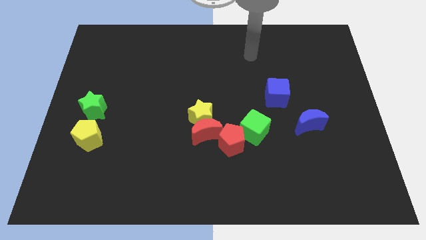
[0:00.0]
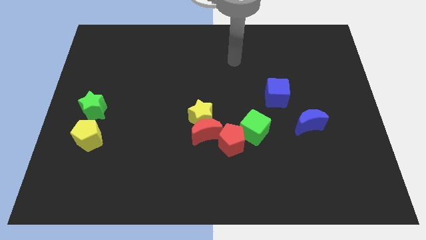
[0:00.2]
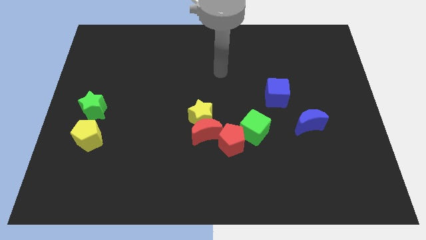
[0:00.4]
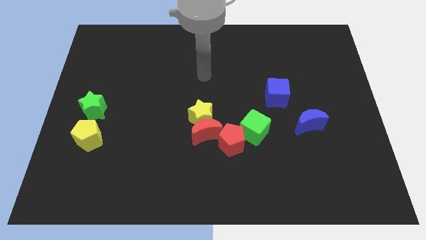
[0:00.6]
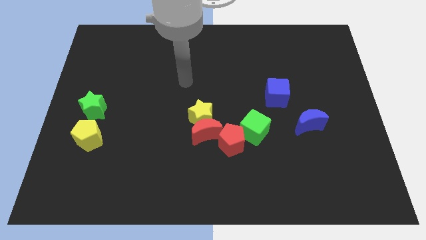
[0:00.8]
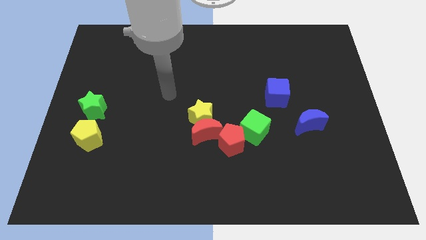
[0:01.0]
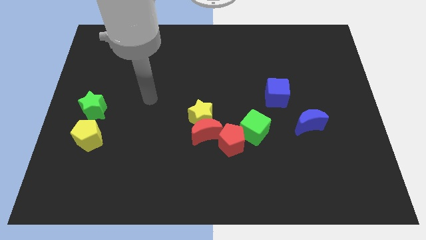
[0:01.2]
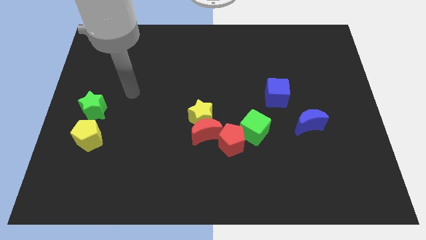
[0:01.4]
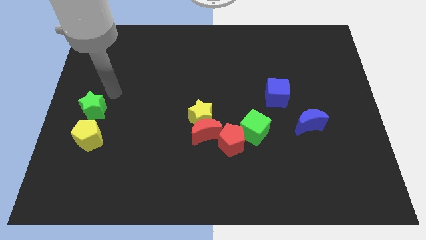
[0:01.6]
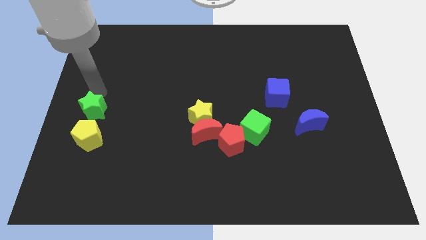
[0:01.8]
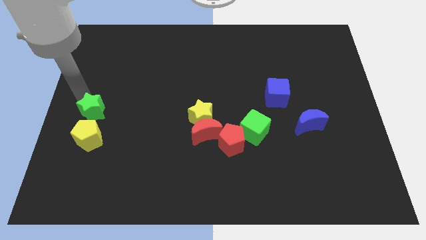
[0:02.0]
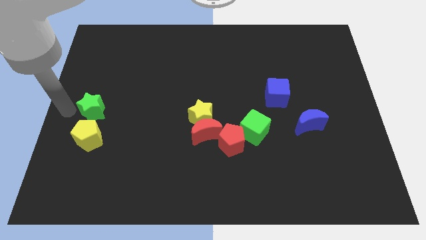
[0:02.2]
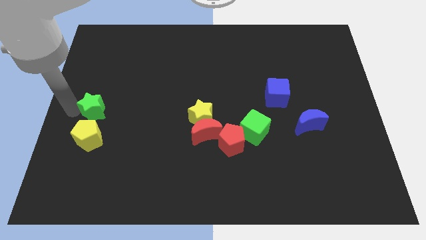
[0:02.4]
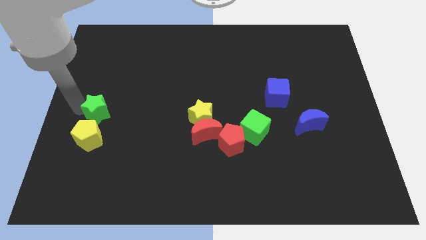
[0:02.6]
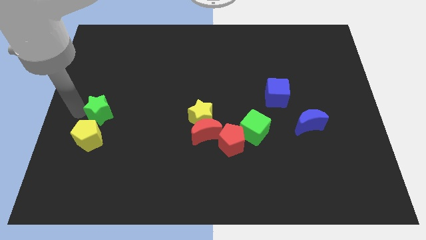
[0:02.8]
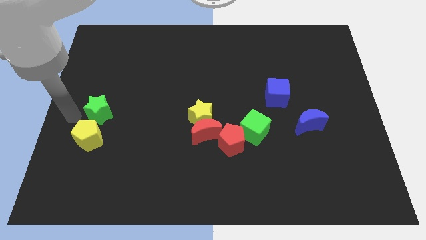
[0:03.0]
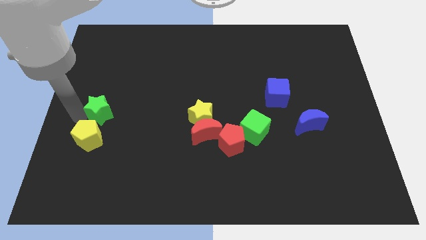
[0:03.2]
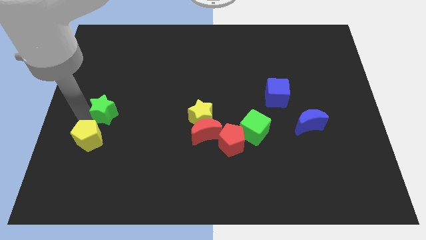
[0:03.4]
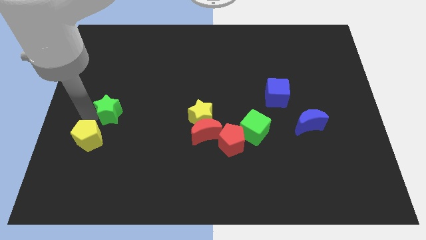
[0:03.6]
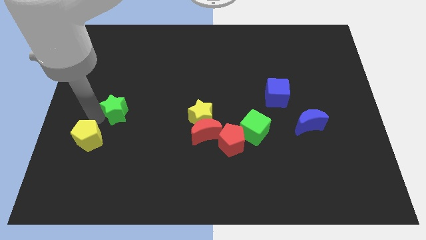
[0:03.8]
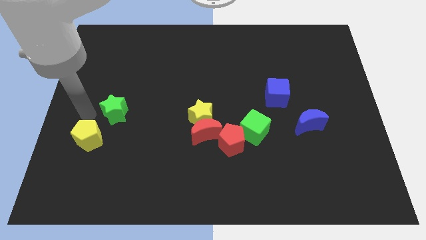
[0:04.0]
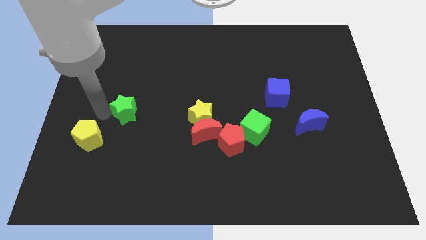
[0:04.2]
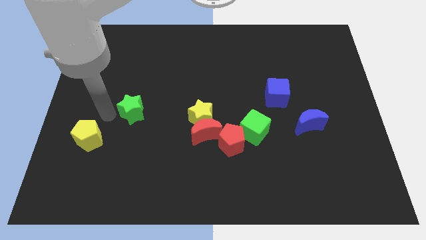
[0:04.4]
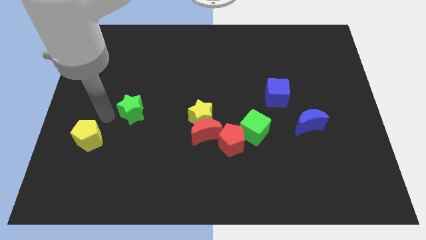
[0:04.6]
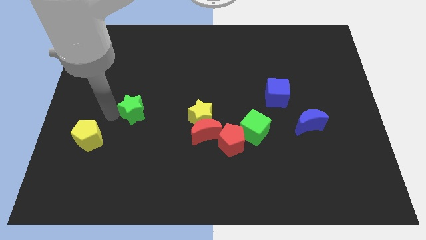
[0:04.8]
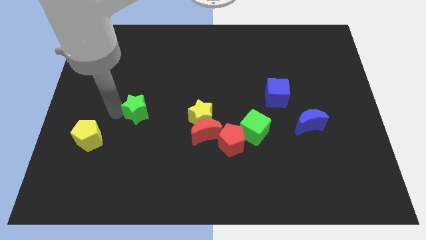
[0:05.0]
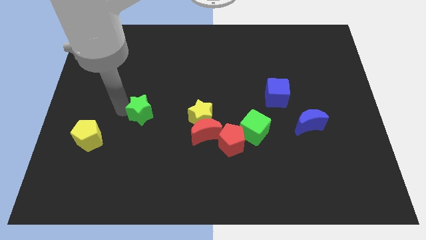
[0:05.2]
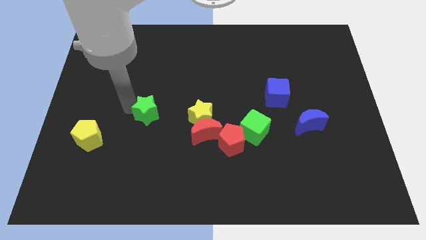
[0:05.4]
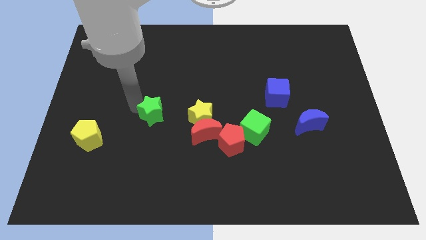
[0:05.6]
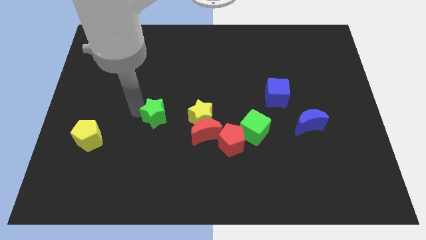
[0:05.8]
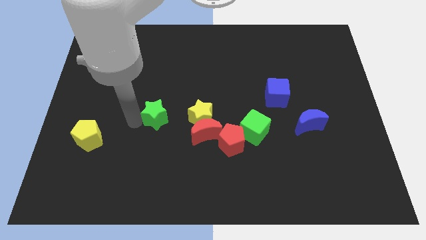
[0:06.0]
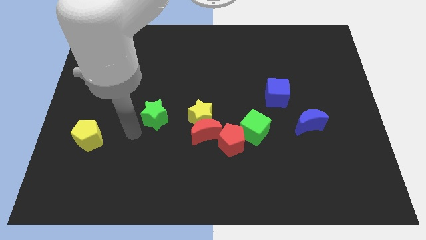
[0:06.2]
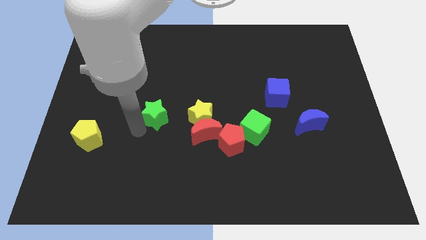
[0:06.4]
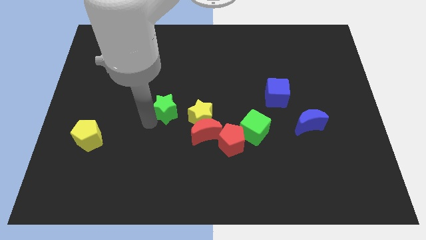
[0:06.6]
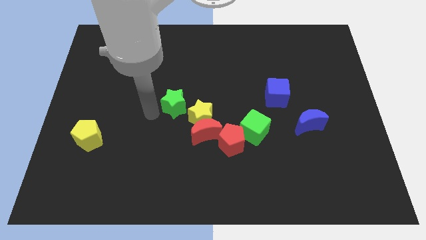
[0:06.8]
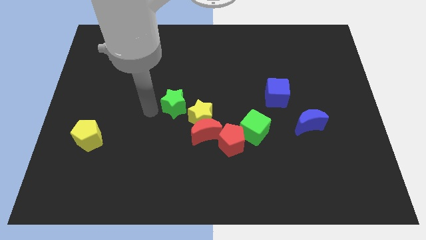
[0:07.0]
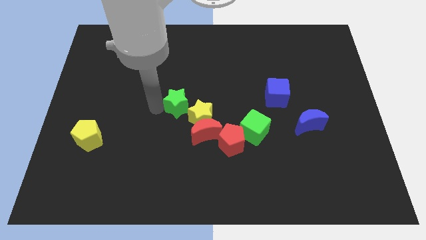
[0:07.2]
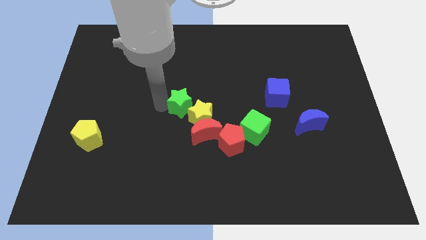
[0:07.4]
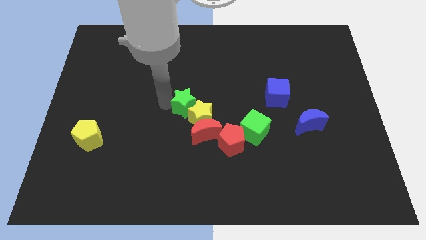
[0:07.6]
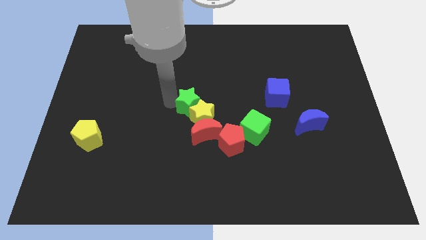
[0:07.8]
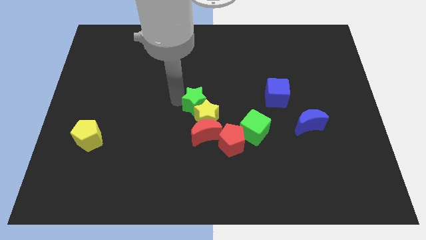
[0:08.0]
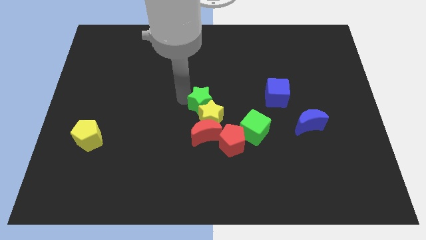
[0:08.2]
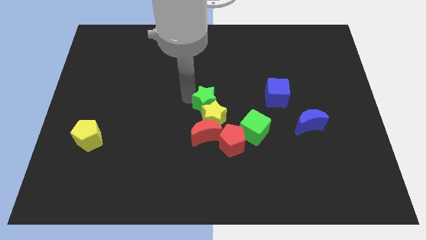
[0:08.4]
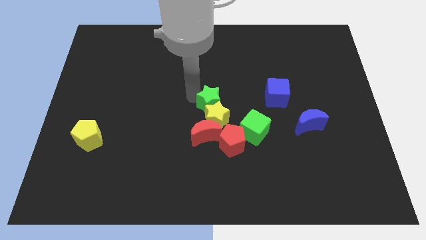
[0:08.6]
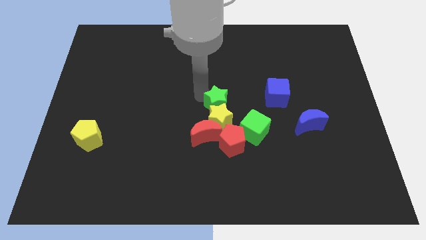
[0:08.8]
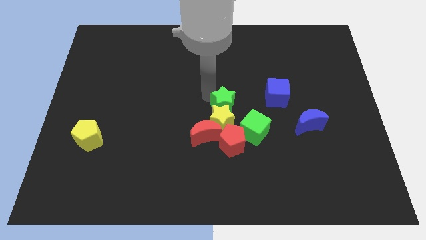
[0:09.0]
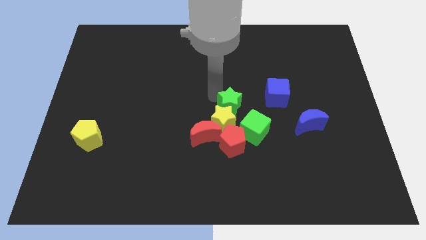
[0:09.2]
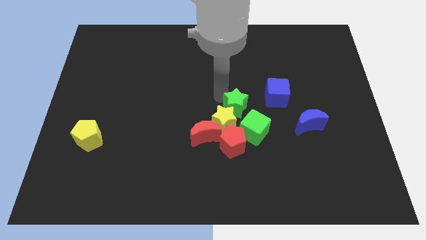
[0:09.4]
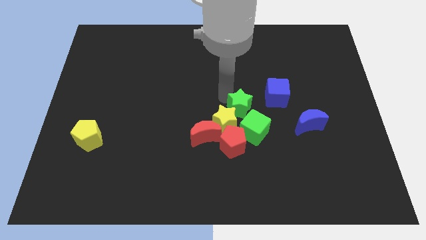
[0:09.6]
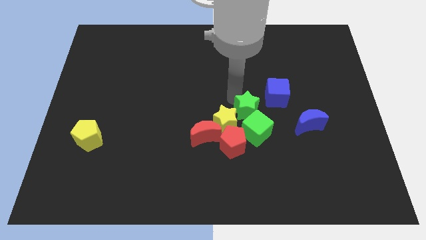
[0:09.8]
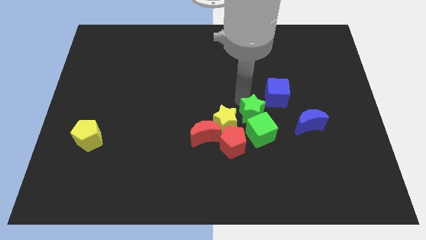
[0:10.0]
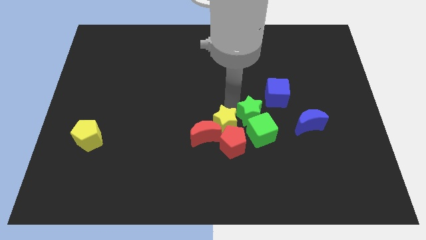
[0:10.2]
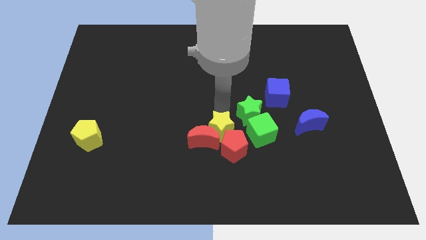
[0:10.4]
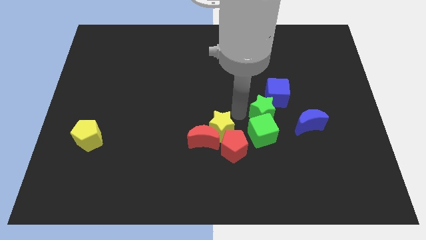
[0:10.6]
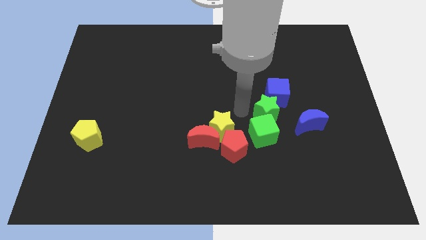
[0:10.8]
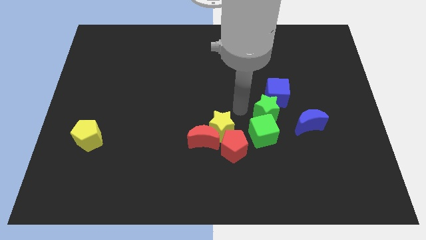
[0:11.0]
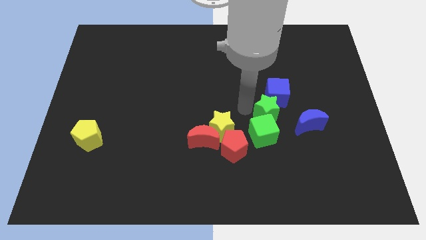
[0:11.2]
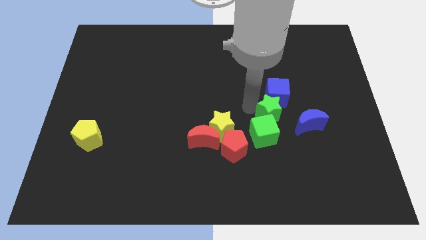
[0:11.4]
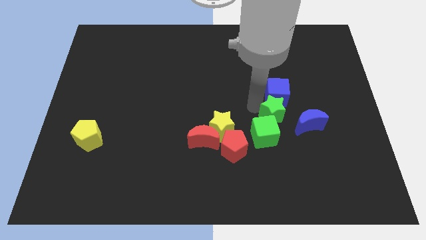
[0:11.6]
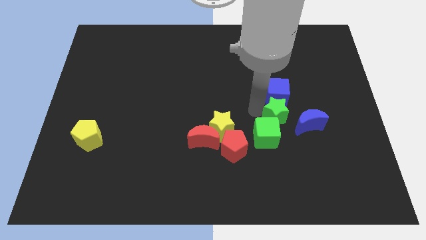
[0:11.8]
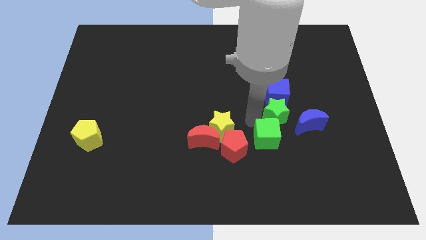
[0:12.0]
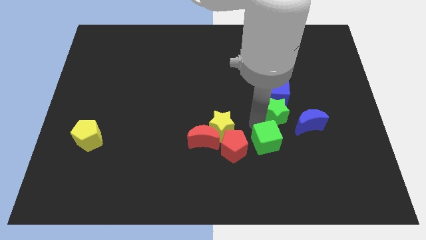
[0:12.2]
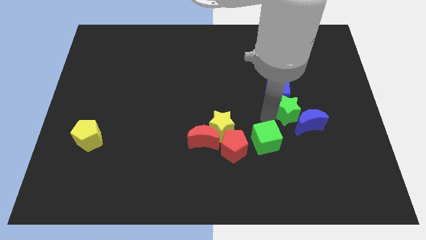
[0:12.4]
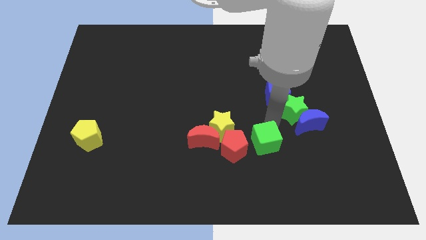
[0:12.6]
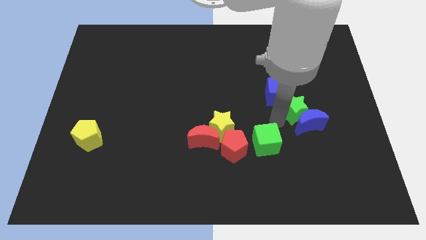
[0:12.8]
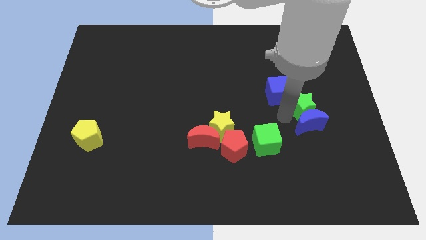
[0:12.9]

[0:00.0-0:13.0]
move the green star to the right side of the blue cube

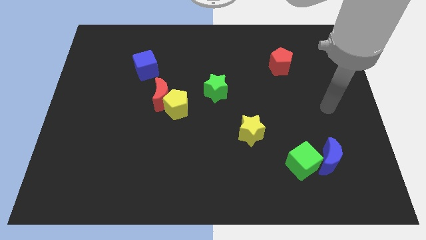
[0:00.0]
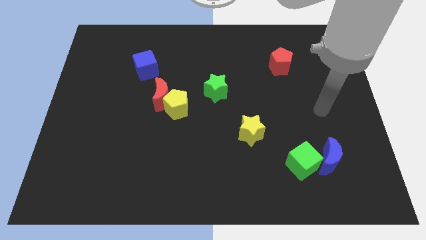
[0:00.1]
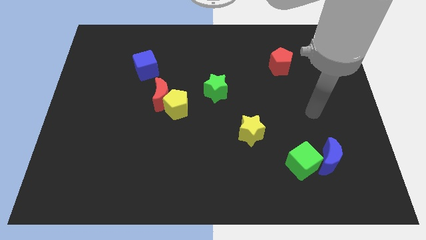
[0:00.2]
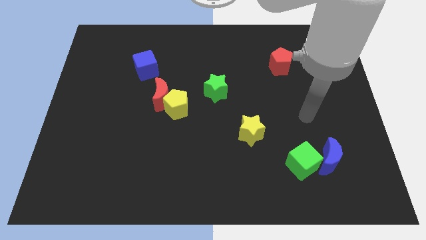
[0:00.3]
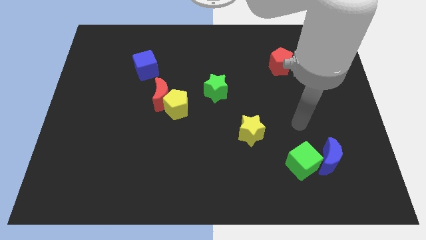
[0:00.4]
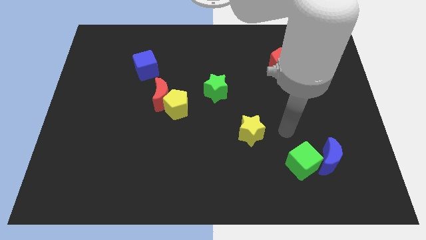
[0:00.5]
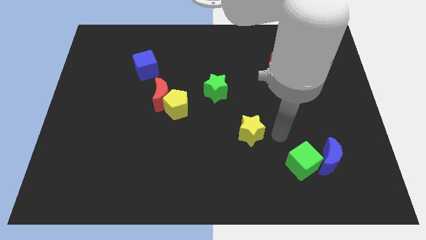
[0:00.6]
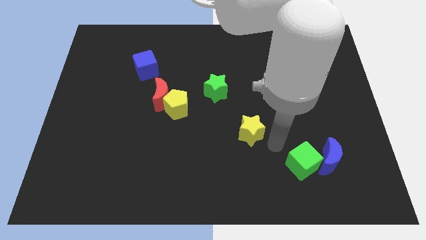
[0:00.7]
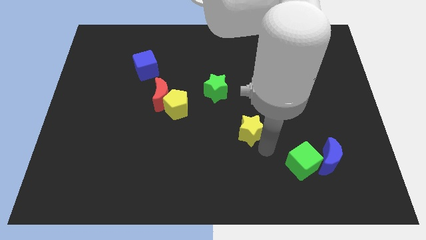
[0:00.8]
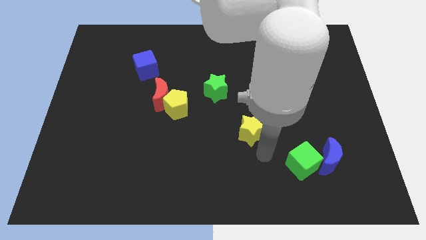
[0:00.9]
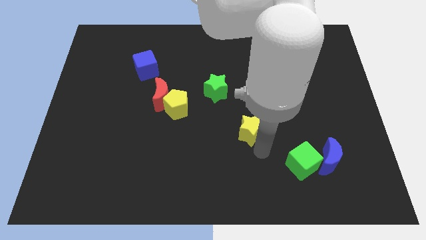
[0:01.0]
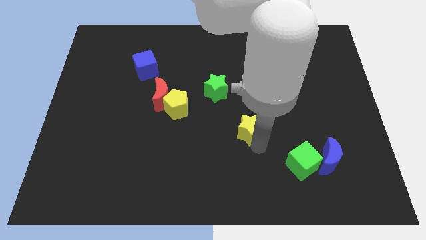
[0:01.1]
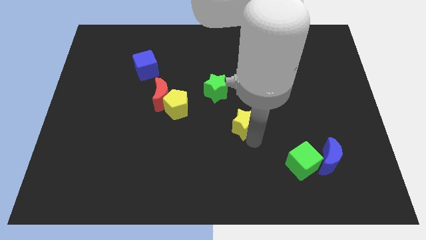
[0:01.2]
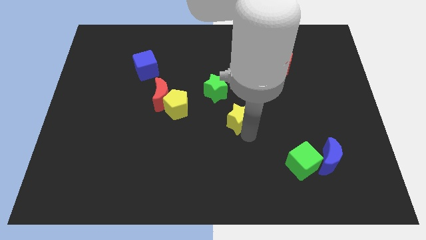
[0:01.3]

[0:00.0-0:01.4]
move the yellow star diagonally down and to the right of the green star
